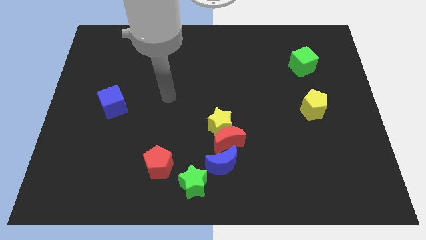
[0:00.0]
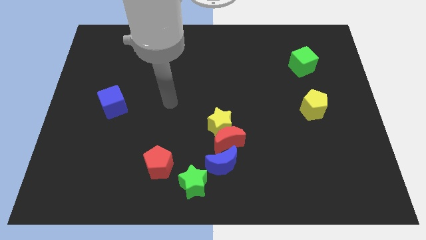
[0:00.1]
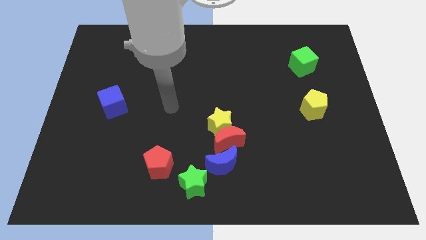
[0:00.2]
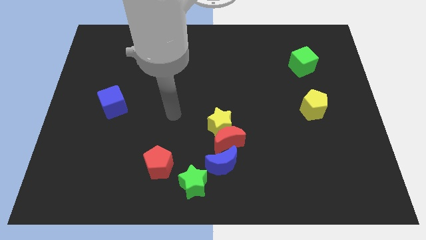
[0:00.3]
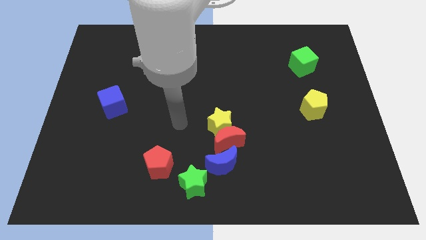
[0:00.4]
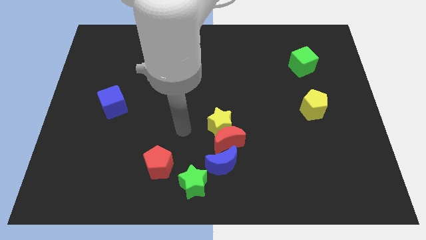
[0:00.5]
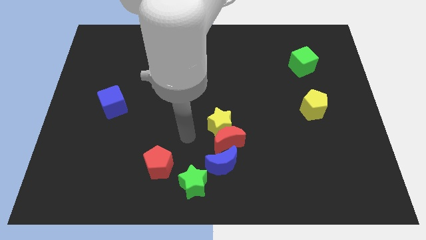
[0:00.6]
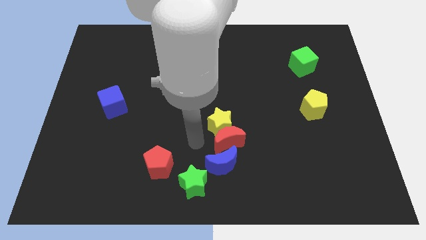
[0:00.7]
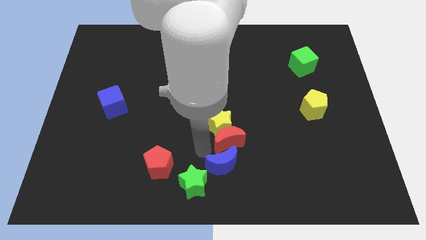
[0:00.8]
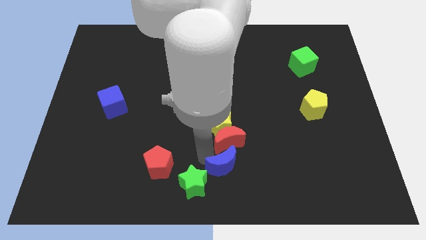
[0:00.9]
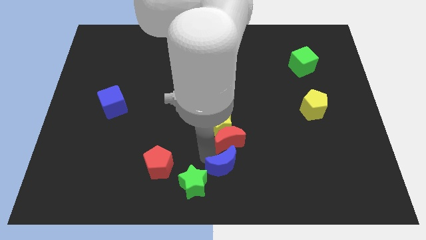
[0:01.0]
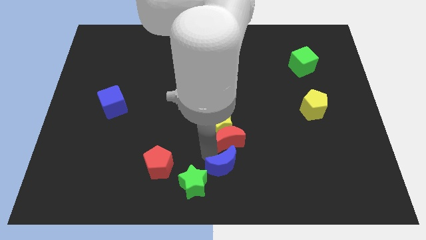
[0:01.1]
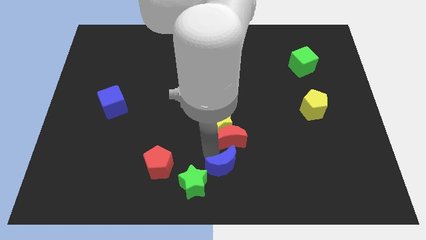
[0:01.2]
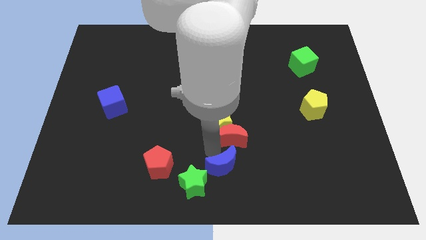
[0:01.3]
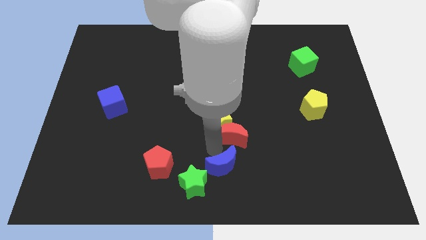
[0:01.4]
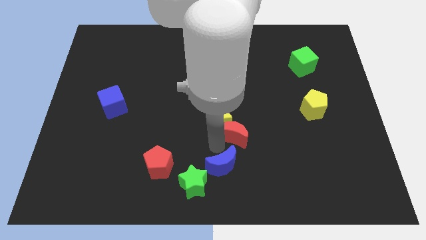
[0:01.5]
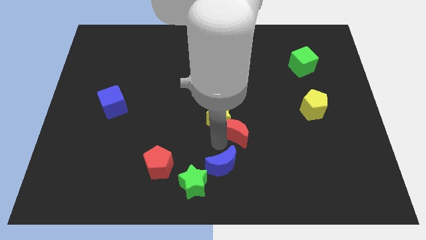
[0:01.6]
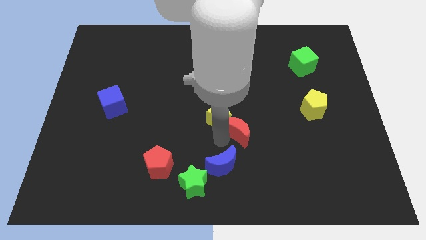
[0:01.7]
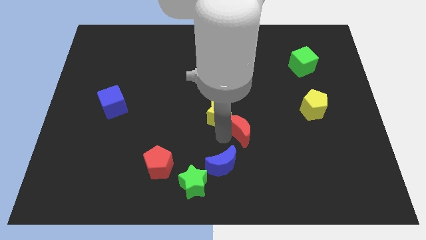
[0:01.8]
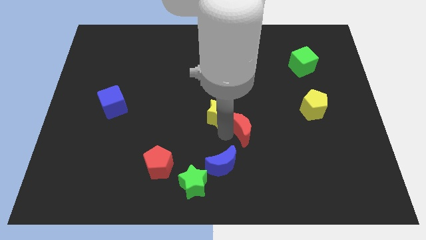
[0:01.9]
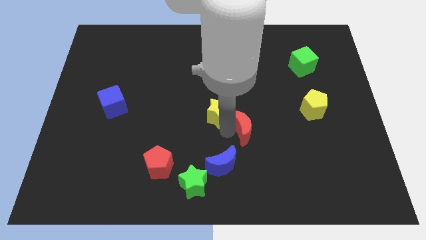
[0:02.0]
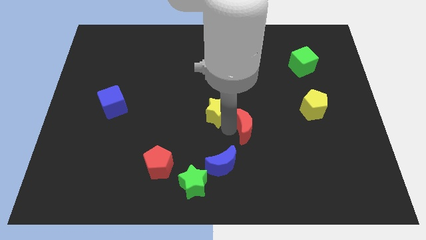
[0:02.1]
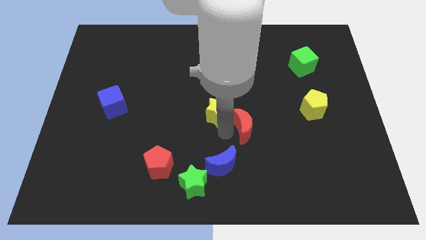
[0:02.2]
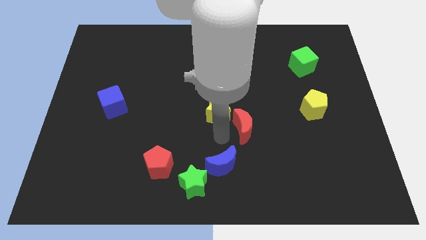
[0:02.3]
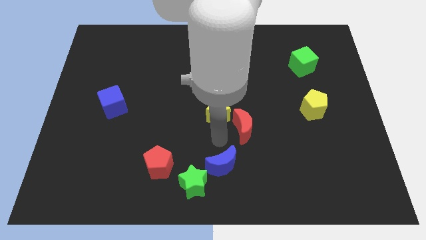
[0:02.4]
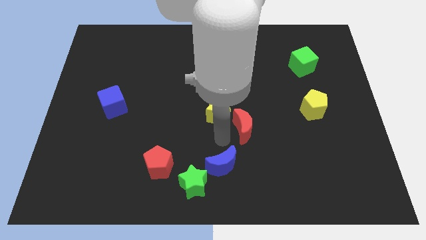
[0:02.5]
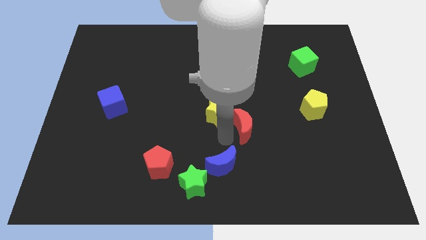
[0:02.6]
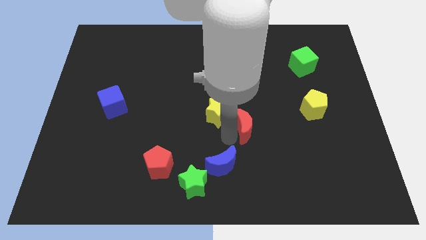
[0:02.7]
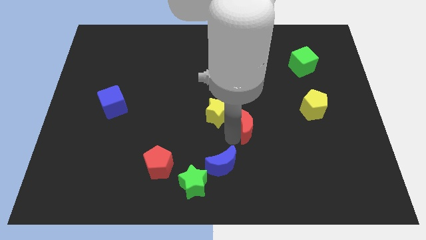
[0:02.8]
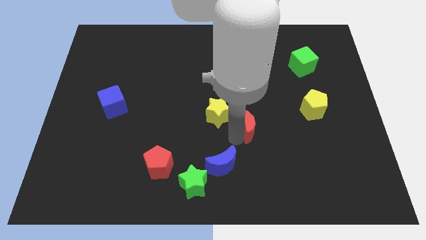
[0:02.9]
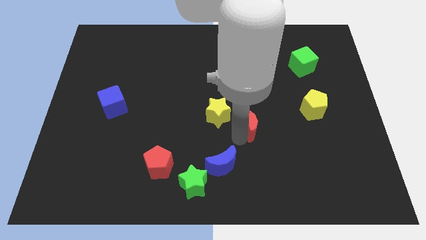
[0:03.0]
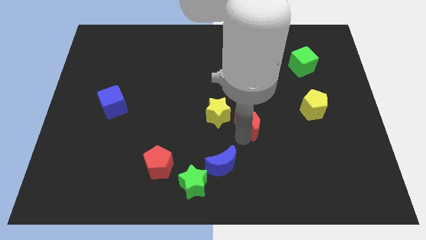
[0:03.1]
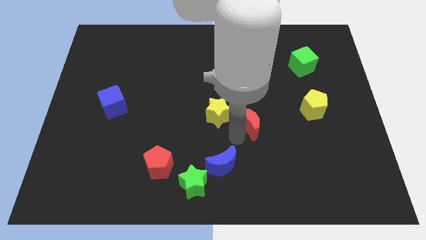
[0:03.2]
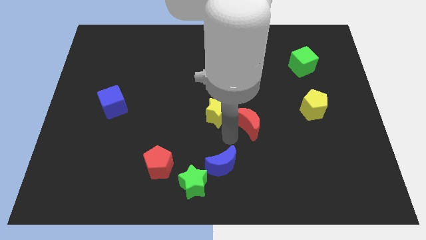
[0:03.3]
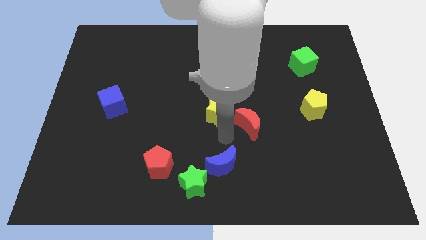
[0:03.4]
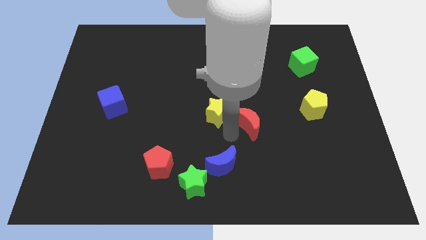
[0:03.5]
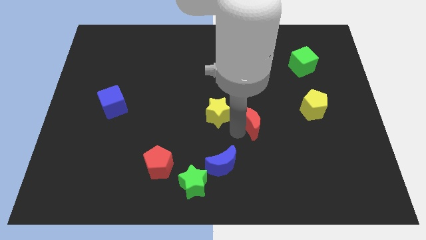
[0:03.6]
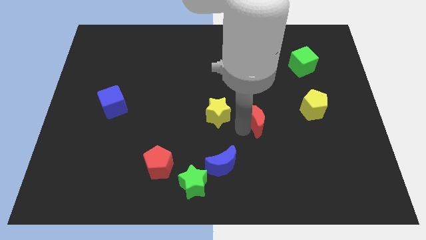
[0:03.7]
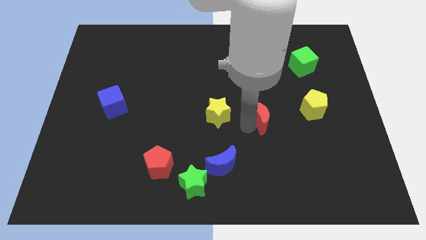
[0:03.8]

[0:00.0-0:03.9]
pull the red moon apart from the yellow star and blue moon

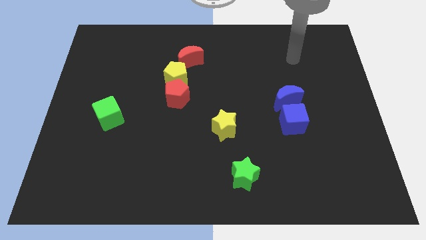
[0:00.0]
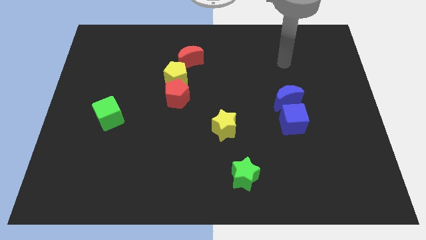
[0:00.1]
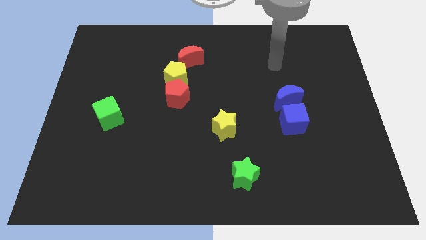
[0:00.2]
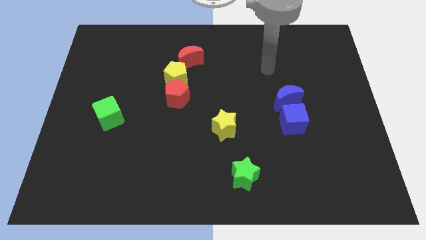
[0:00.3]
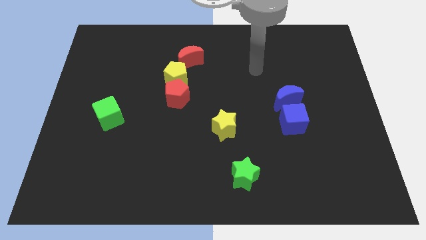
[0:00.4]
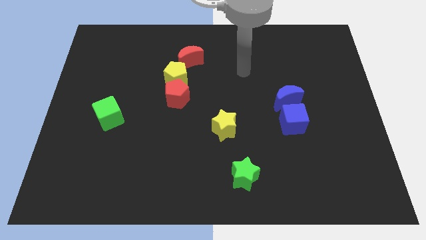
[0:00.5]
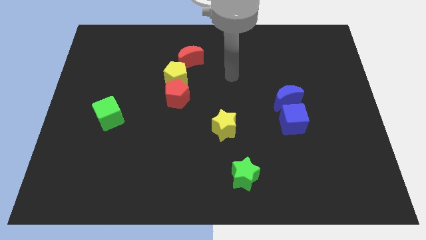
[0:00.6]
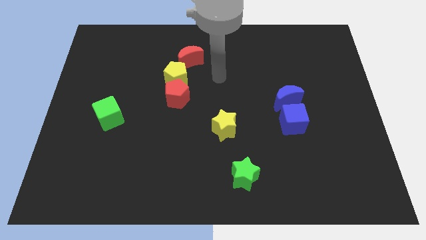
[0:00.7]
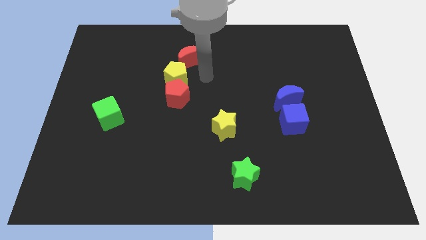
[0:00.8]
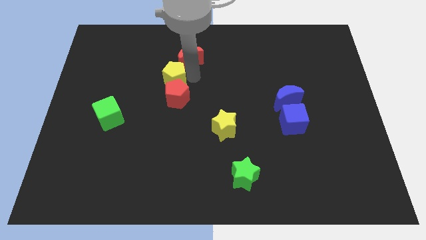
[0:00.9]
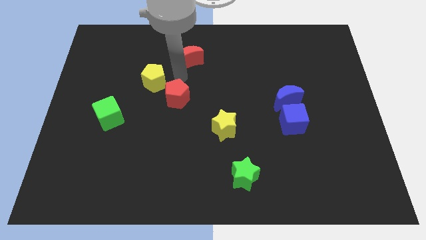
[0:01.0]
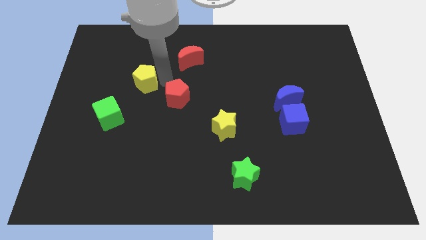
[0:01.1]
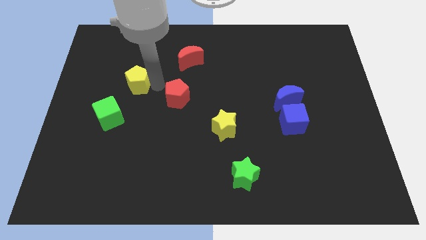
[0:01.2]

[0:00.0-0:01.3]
separate the red pentagon from the yellow pentagon

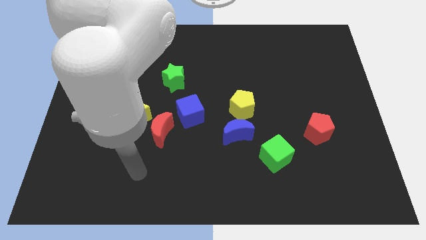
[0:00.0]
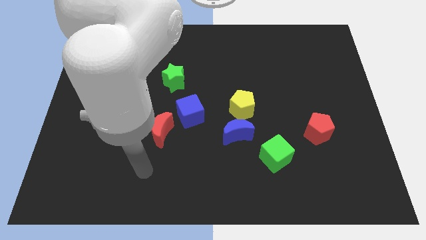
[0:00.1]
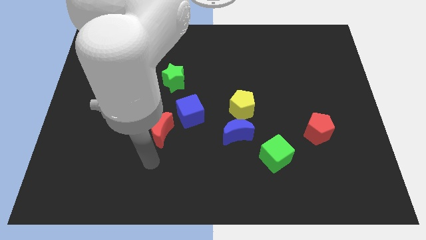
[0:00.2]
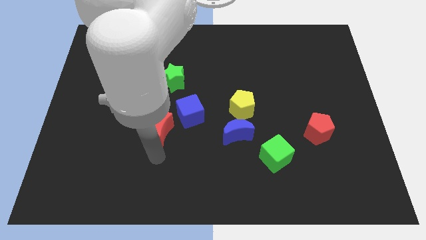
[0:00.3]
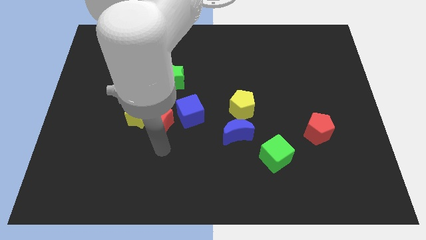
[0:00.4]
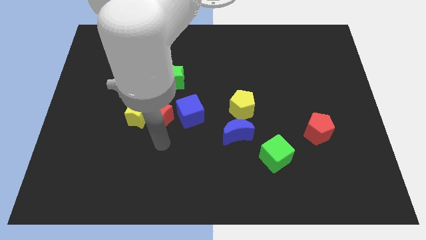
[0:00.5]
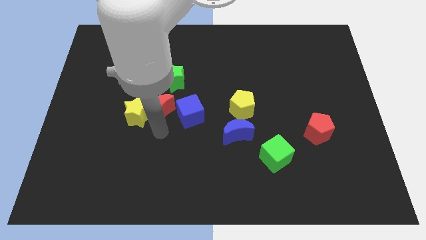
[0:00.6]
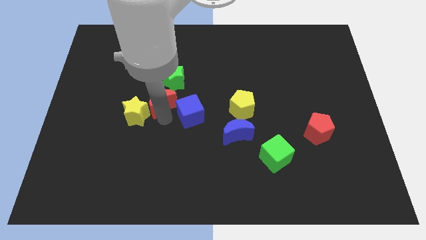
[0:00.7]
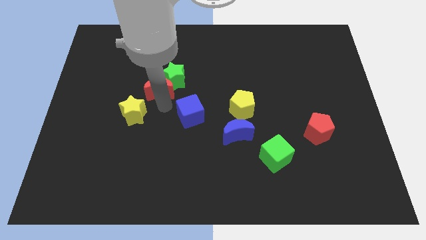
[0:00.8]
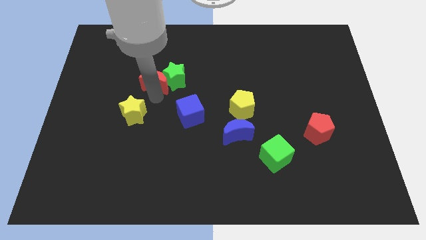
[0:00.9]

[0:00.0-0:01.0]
pull the yellow star apart from the red moon

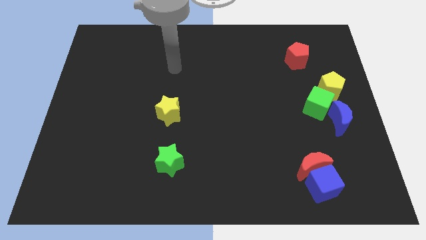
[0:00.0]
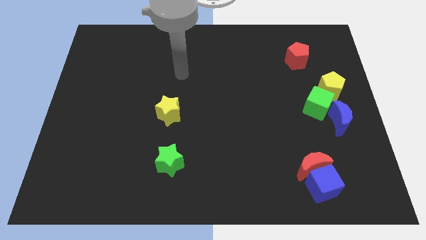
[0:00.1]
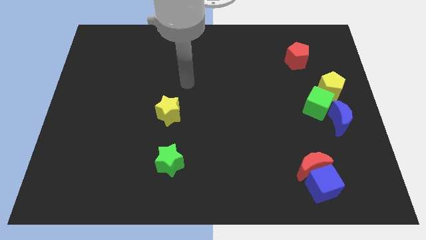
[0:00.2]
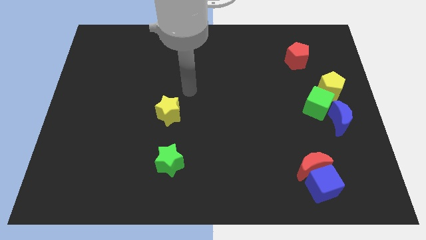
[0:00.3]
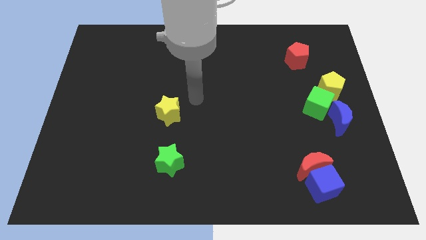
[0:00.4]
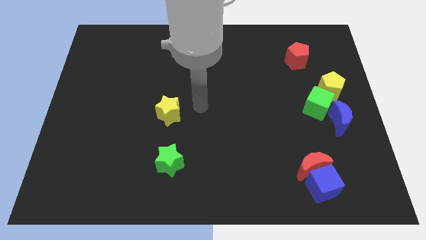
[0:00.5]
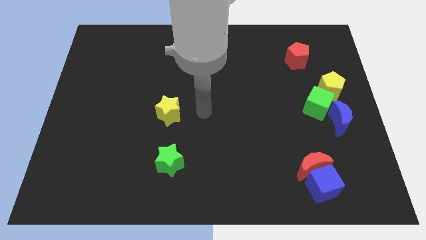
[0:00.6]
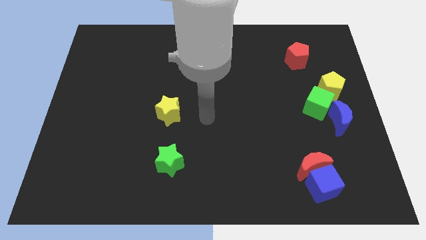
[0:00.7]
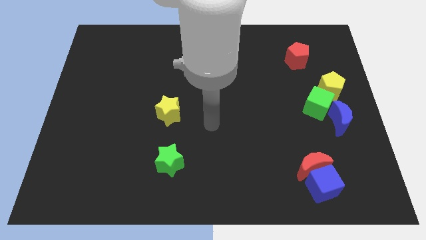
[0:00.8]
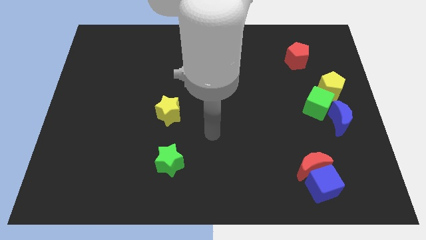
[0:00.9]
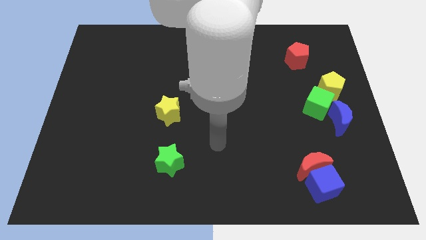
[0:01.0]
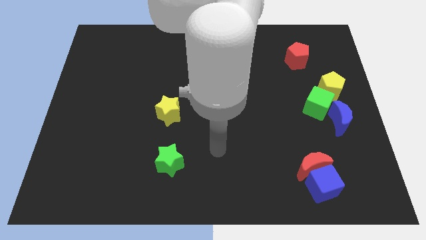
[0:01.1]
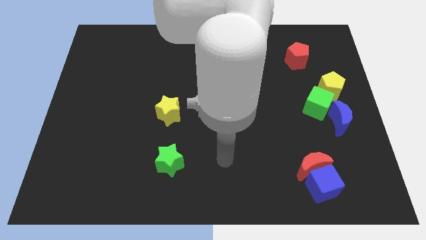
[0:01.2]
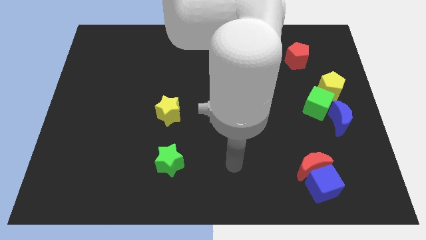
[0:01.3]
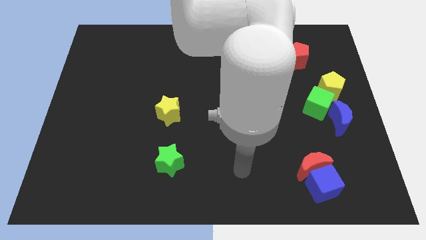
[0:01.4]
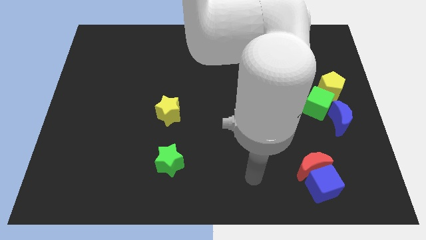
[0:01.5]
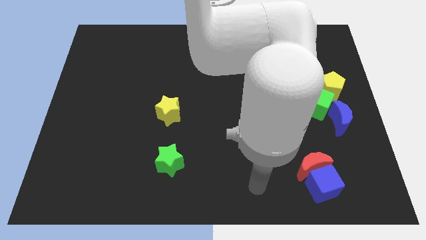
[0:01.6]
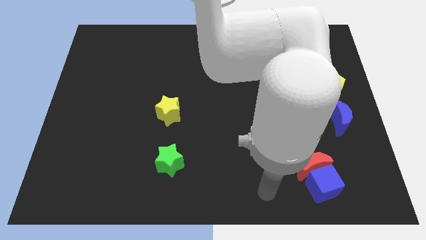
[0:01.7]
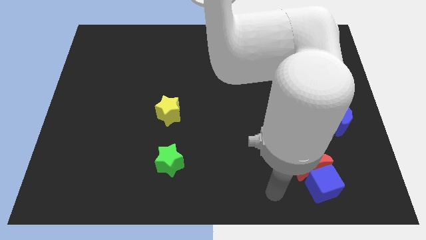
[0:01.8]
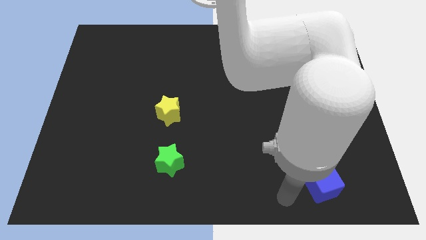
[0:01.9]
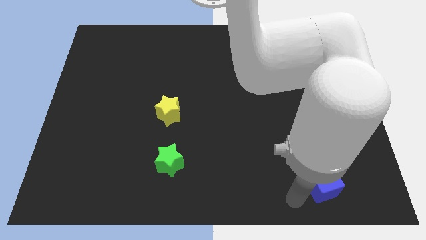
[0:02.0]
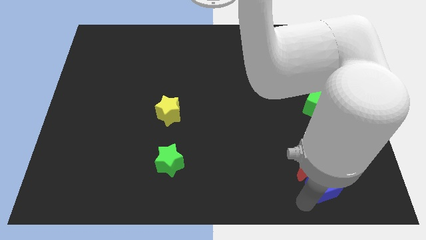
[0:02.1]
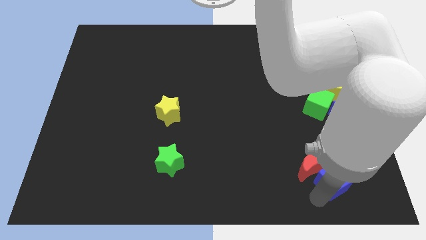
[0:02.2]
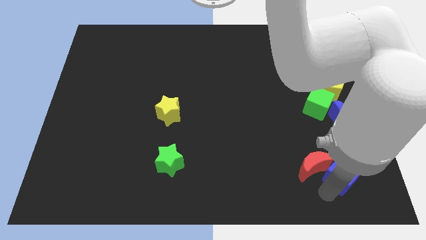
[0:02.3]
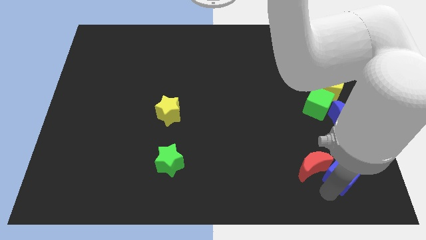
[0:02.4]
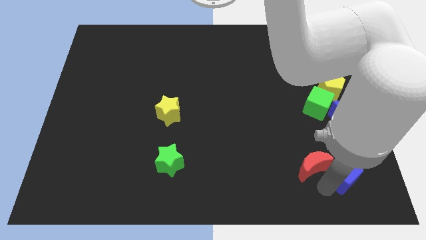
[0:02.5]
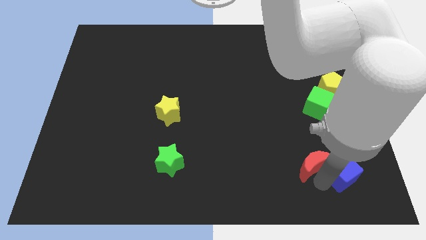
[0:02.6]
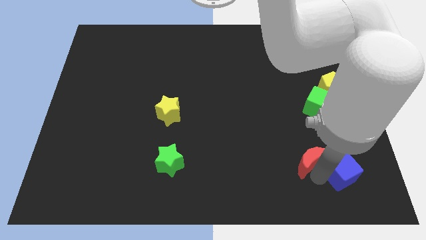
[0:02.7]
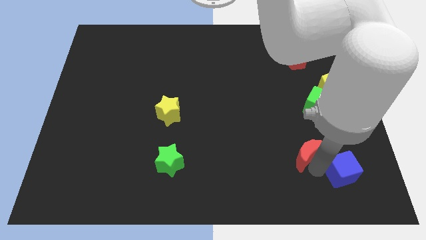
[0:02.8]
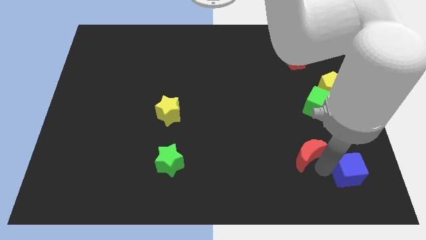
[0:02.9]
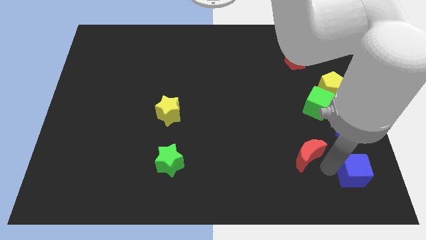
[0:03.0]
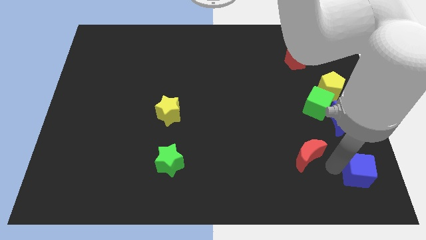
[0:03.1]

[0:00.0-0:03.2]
move the red moon away from the blue cube

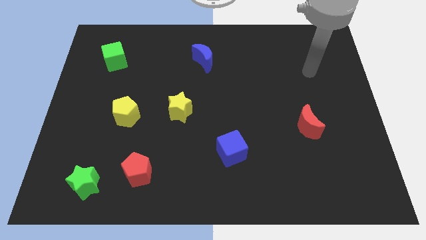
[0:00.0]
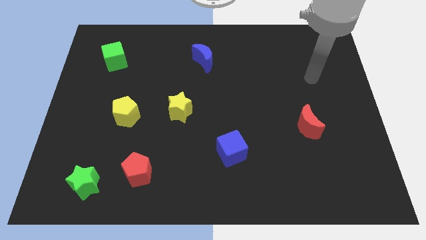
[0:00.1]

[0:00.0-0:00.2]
pull the red pentagon apart from the green star
